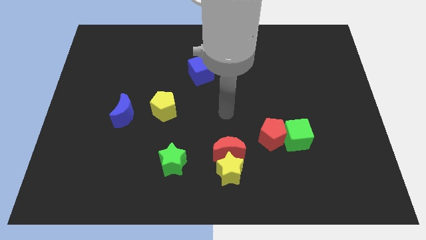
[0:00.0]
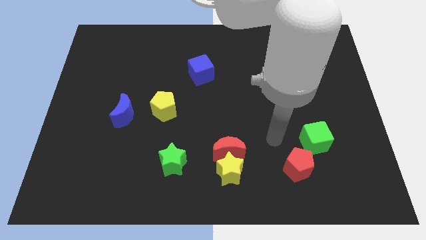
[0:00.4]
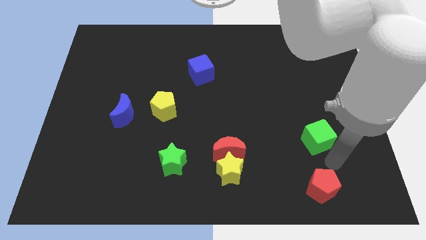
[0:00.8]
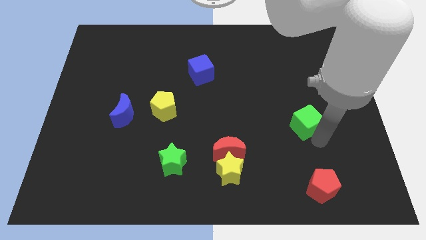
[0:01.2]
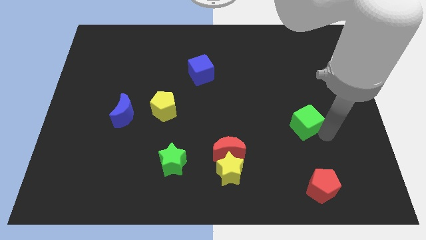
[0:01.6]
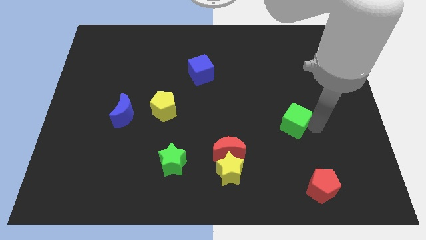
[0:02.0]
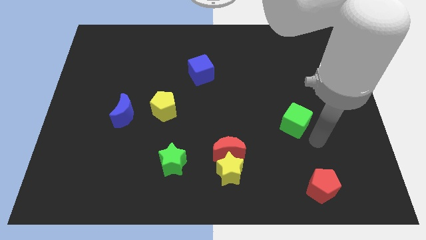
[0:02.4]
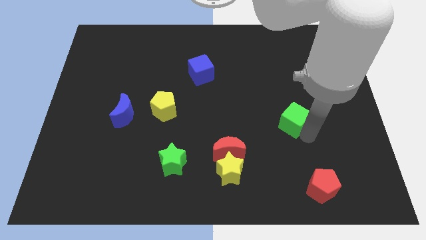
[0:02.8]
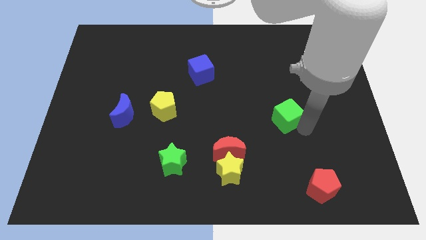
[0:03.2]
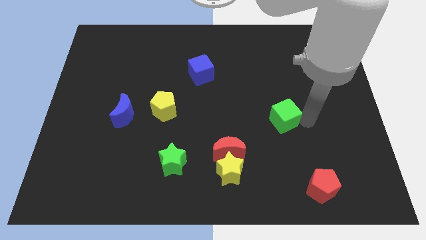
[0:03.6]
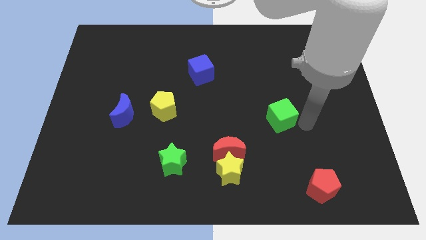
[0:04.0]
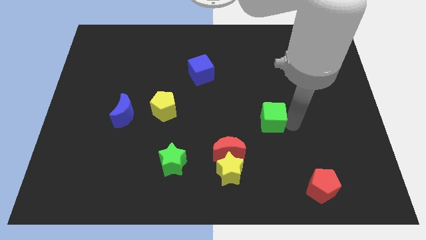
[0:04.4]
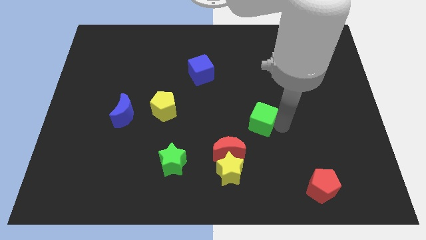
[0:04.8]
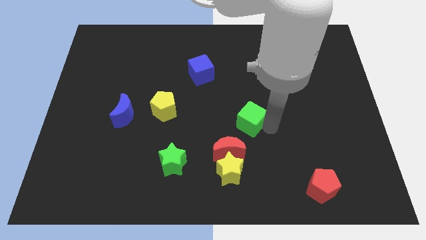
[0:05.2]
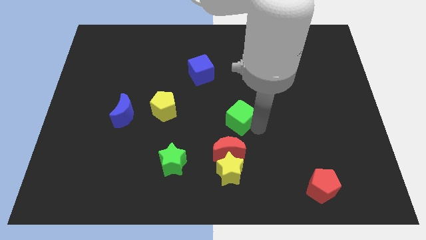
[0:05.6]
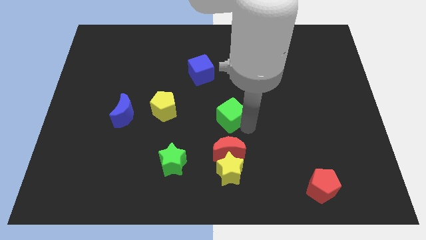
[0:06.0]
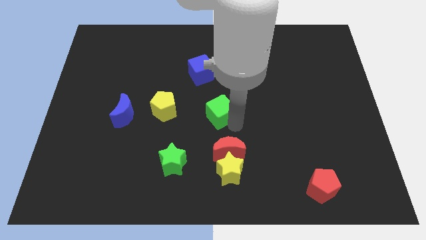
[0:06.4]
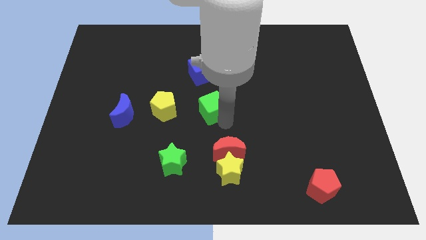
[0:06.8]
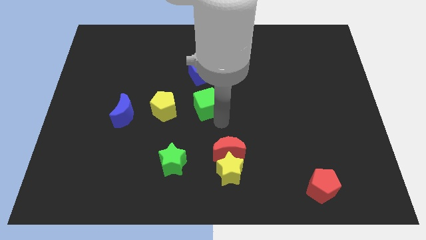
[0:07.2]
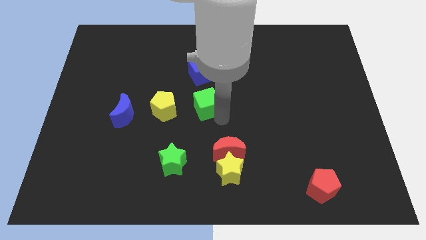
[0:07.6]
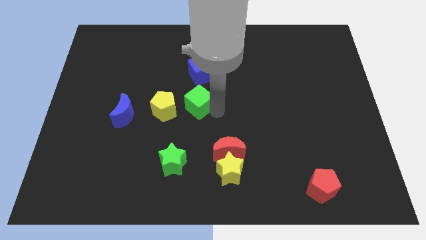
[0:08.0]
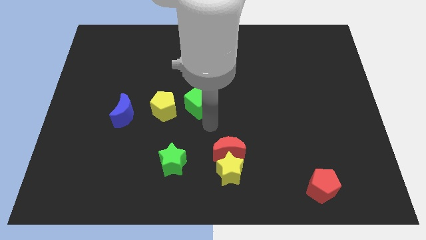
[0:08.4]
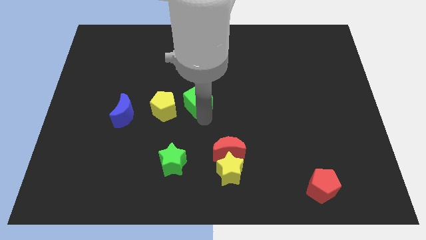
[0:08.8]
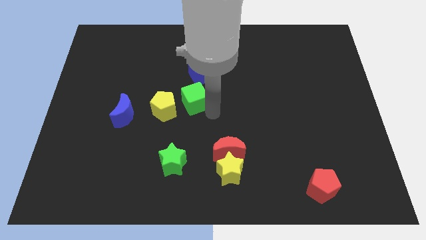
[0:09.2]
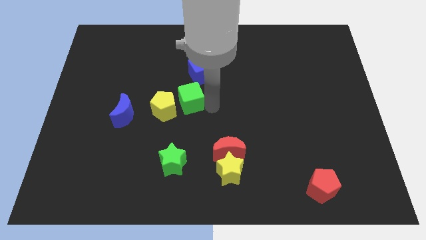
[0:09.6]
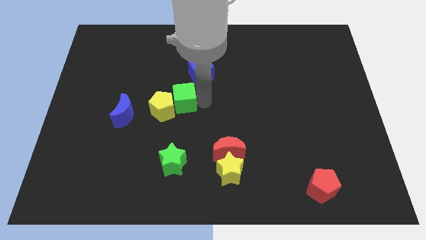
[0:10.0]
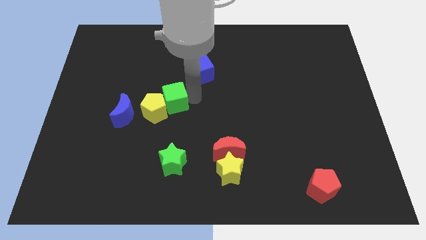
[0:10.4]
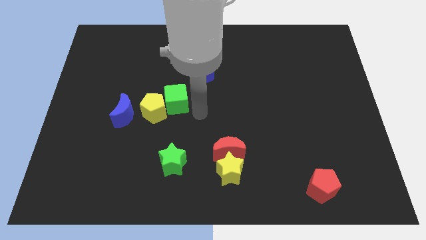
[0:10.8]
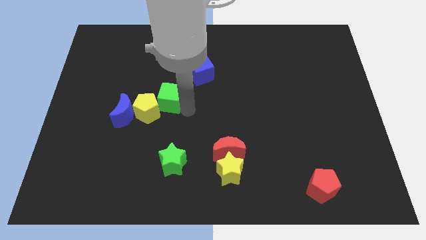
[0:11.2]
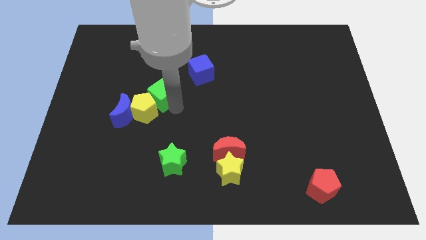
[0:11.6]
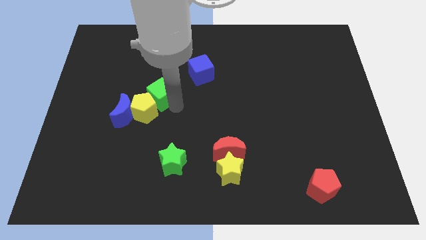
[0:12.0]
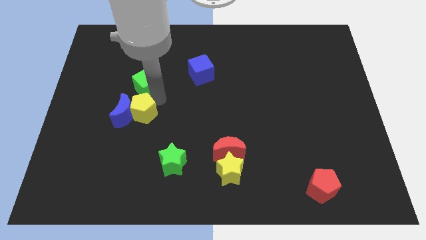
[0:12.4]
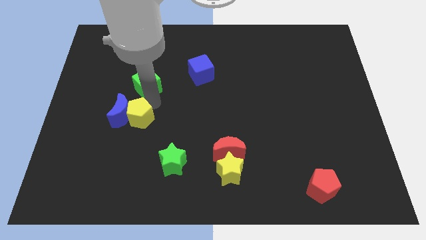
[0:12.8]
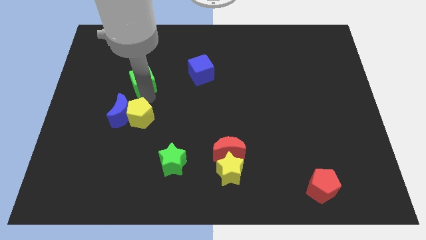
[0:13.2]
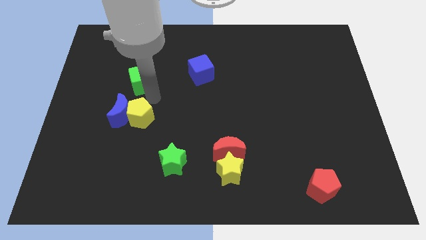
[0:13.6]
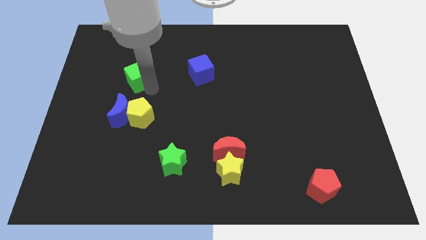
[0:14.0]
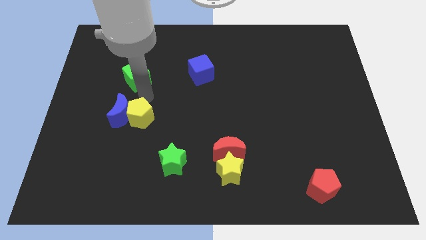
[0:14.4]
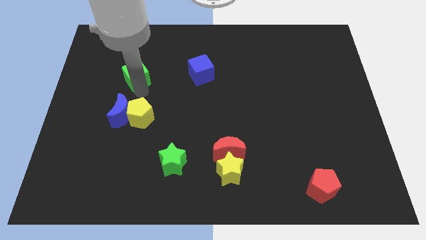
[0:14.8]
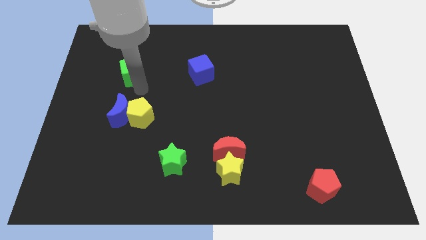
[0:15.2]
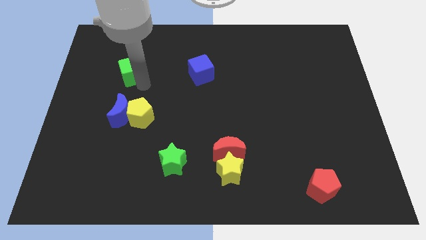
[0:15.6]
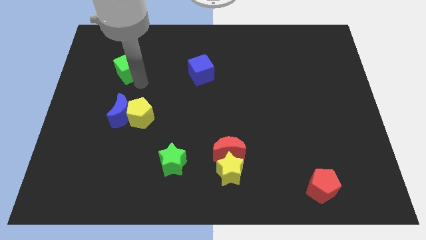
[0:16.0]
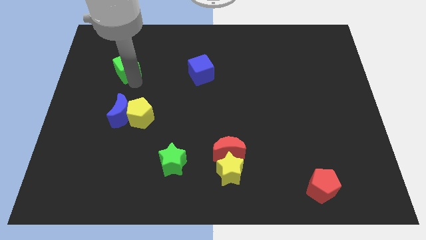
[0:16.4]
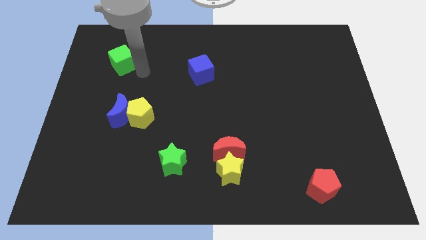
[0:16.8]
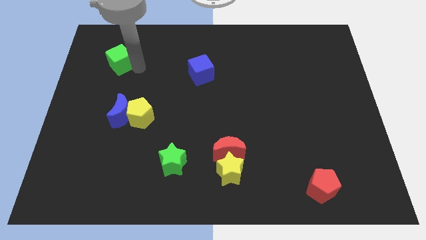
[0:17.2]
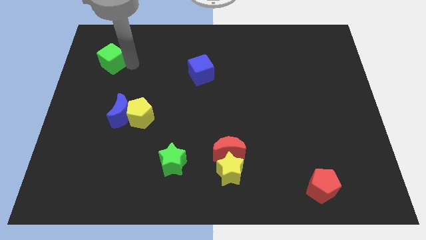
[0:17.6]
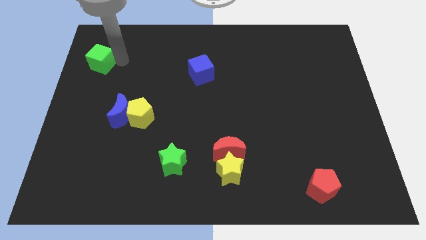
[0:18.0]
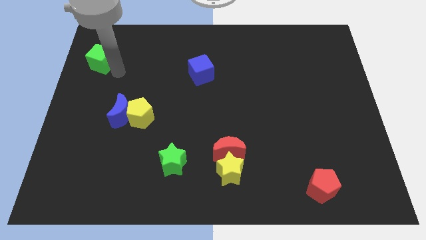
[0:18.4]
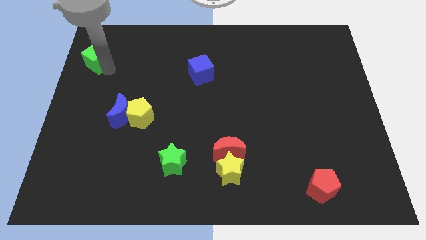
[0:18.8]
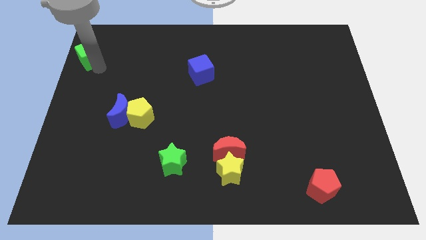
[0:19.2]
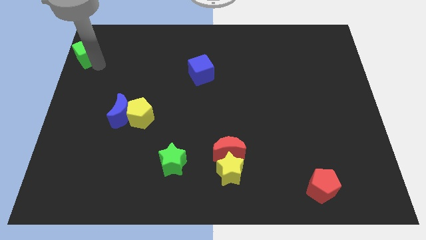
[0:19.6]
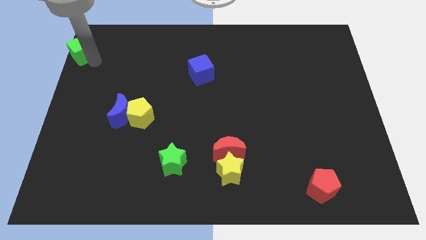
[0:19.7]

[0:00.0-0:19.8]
push the green cube to the top left corner

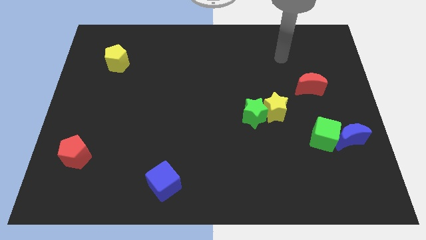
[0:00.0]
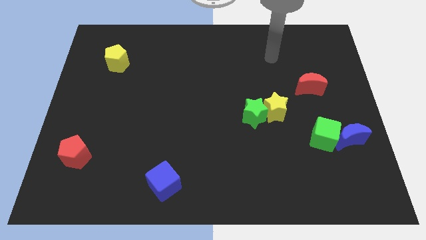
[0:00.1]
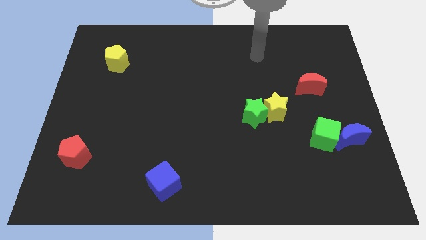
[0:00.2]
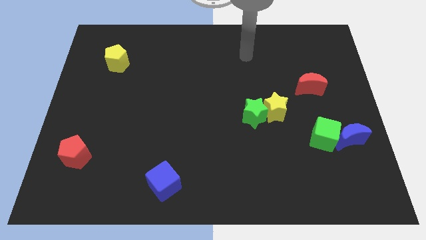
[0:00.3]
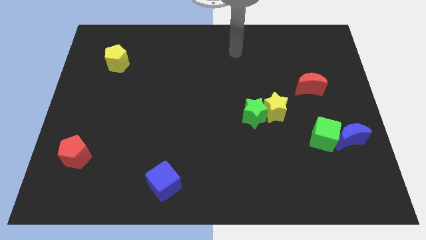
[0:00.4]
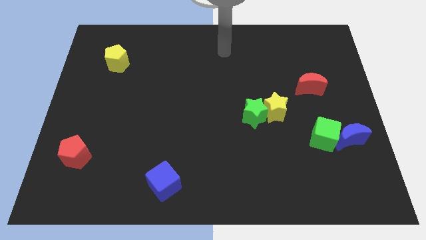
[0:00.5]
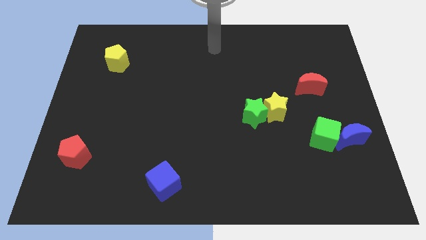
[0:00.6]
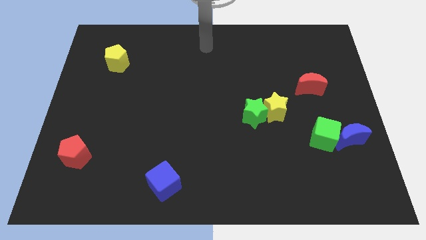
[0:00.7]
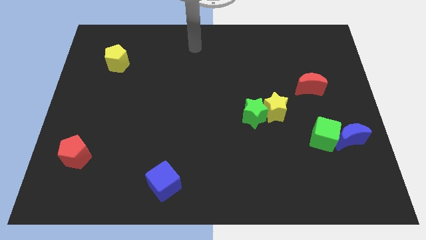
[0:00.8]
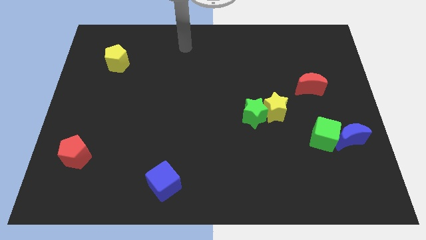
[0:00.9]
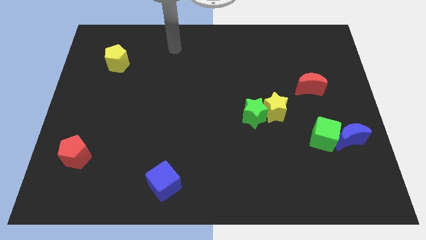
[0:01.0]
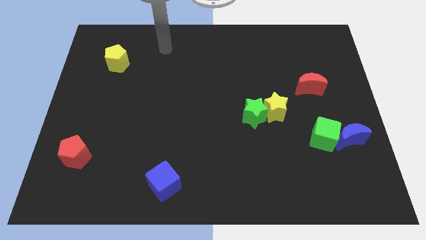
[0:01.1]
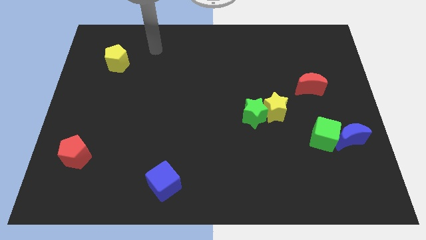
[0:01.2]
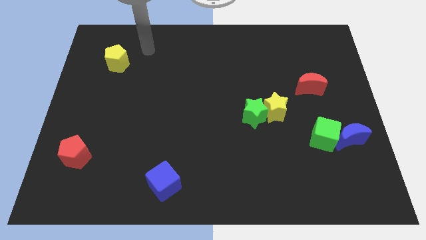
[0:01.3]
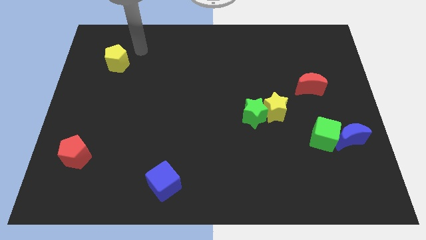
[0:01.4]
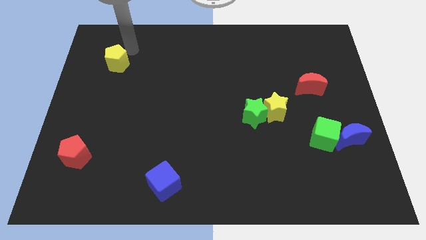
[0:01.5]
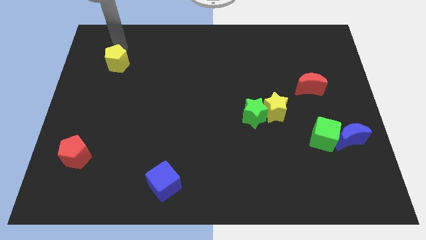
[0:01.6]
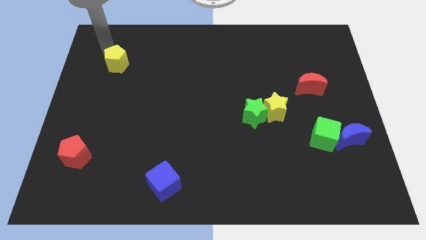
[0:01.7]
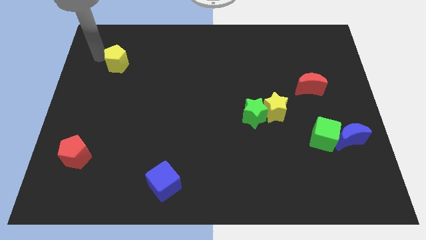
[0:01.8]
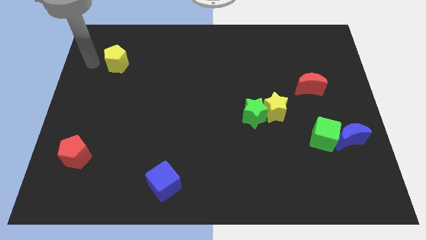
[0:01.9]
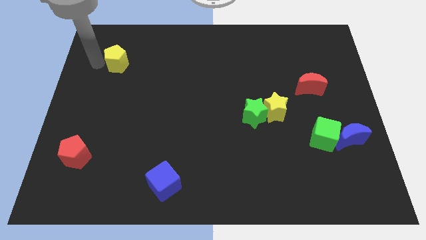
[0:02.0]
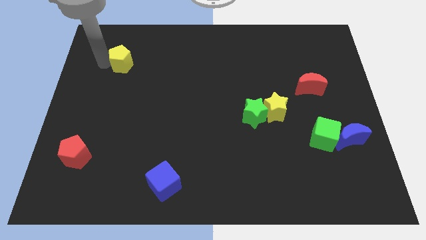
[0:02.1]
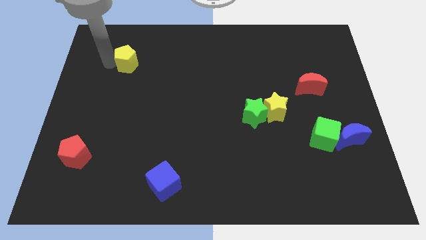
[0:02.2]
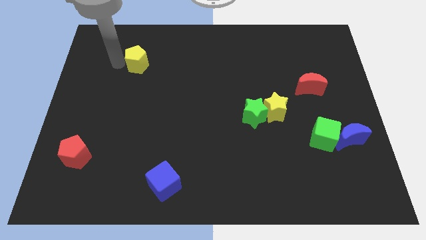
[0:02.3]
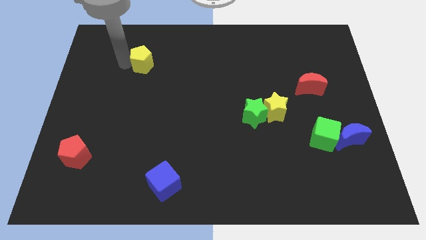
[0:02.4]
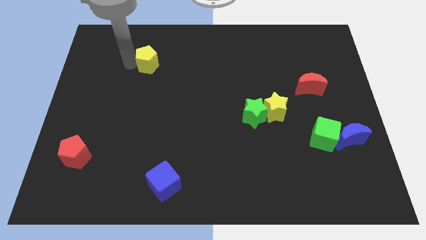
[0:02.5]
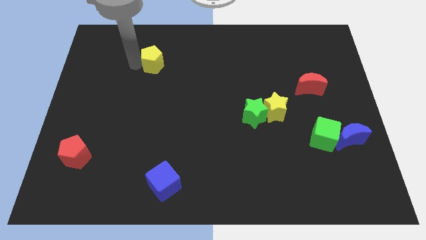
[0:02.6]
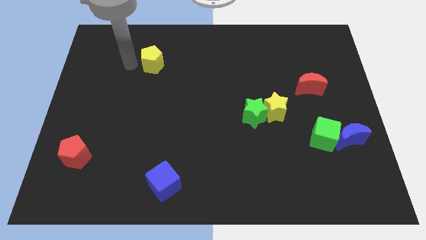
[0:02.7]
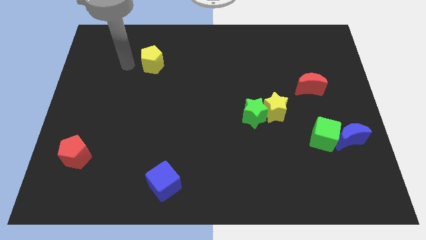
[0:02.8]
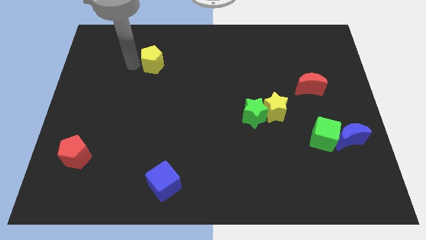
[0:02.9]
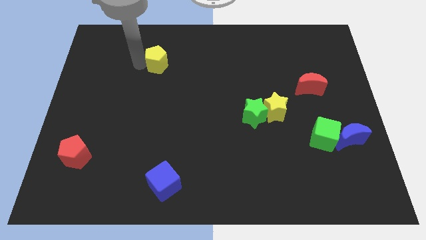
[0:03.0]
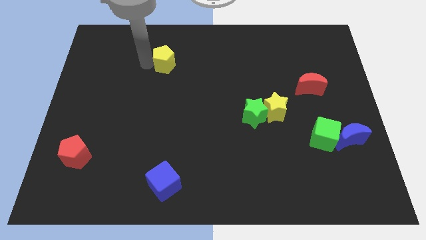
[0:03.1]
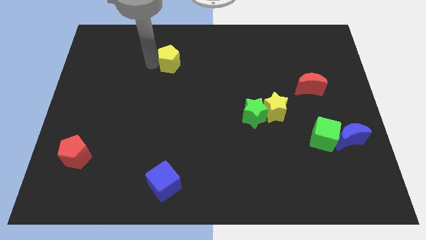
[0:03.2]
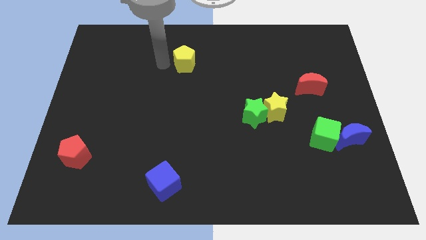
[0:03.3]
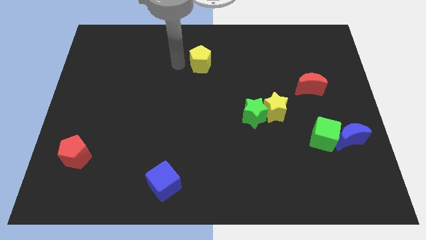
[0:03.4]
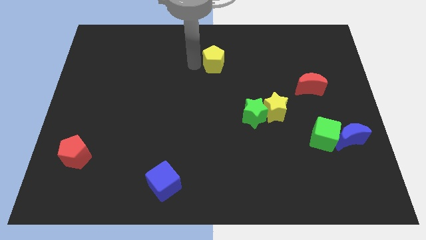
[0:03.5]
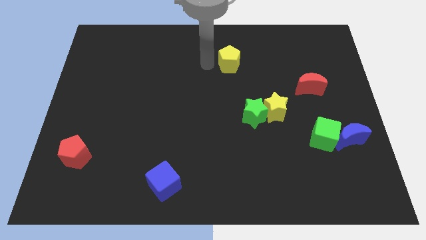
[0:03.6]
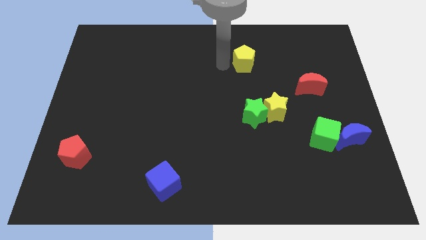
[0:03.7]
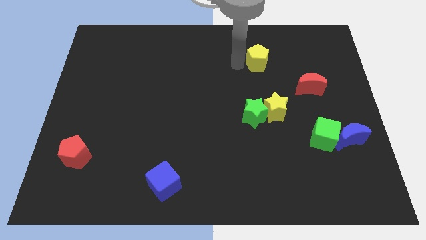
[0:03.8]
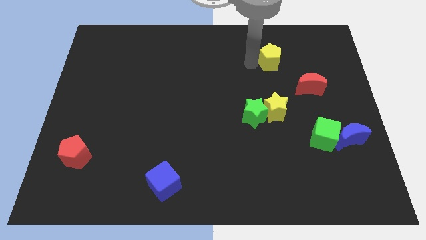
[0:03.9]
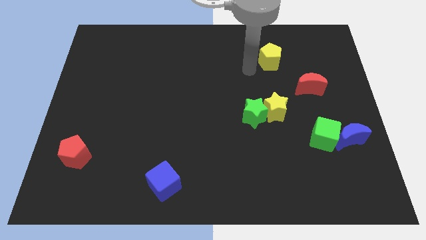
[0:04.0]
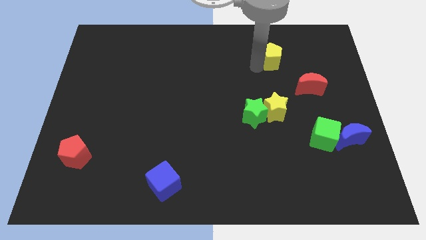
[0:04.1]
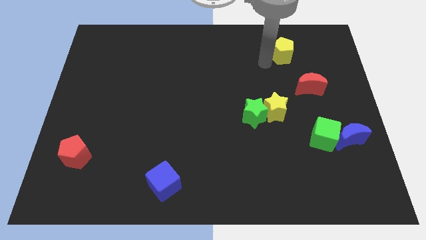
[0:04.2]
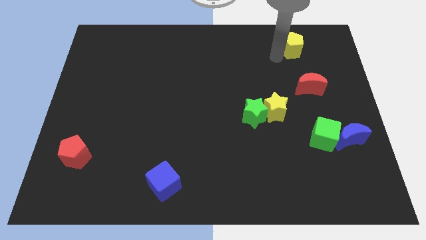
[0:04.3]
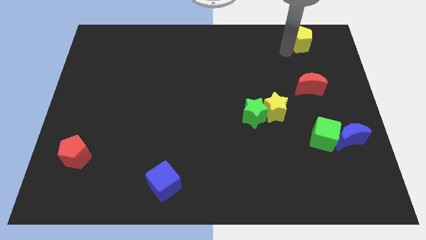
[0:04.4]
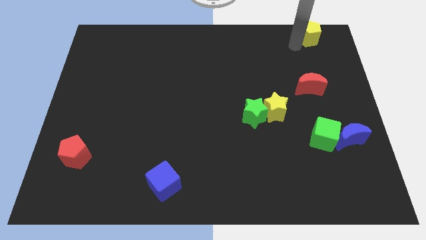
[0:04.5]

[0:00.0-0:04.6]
slide the yellow pentagon to the top right corner
